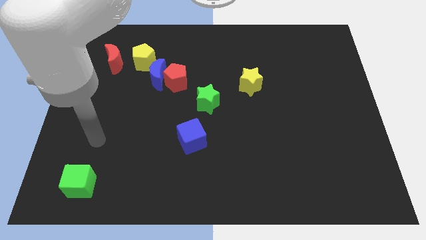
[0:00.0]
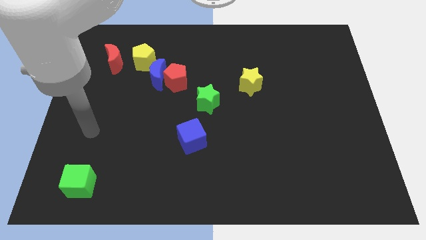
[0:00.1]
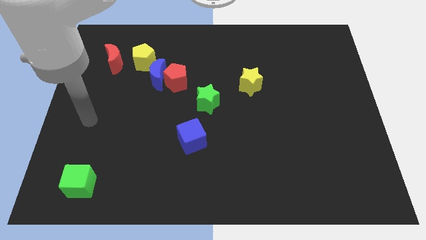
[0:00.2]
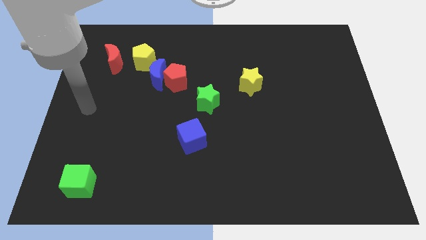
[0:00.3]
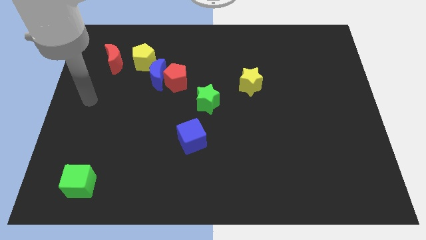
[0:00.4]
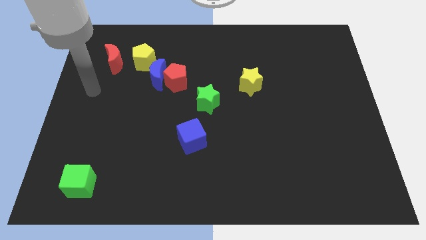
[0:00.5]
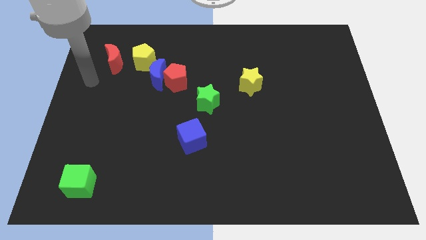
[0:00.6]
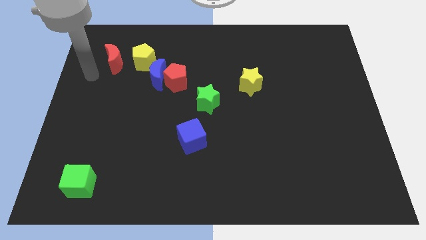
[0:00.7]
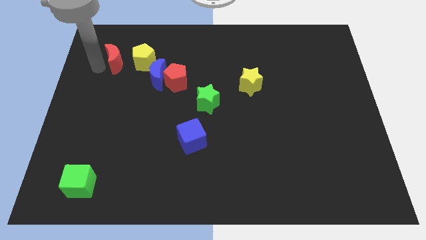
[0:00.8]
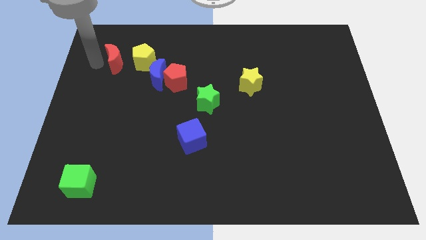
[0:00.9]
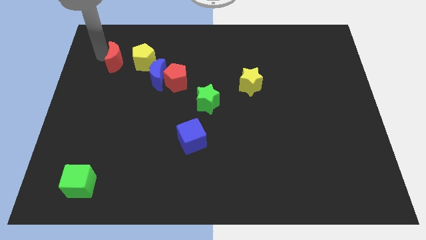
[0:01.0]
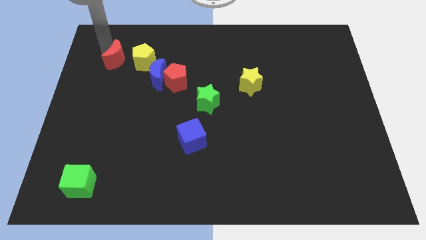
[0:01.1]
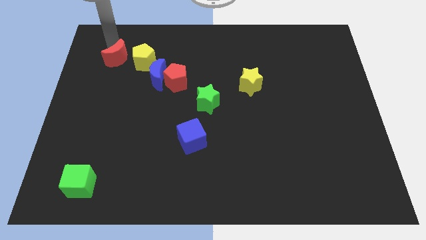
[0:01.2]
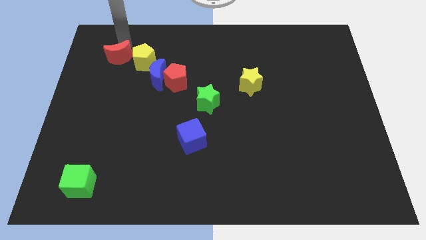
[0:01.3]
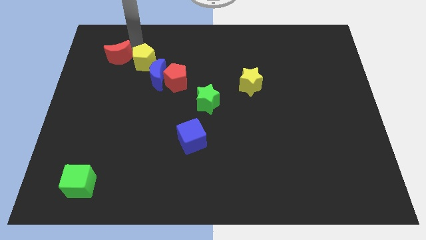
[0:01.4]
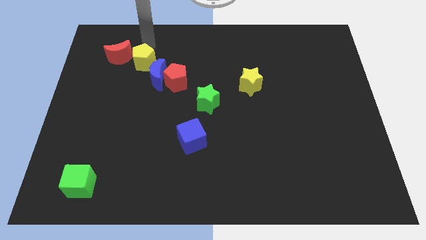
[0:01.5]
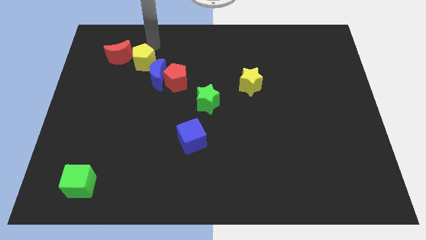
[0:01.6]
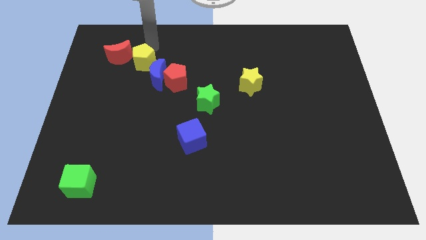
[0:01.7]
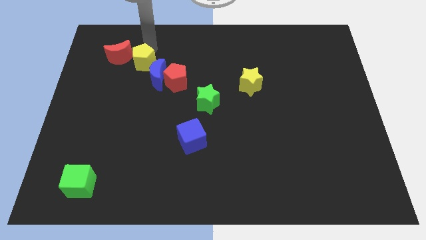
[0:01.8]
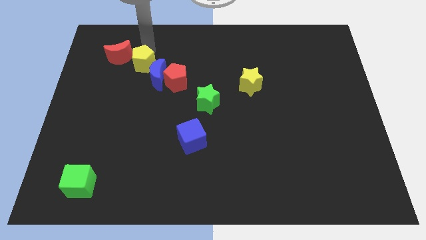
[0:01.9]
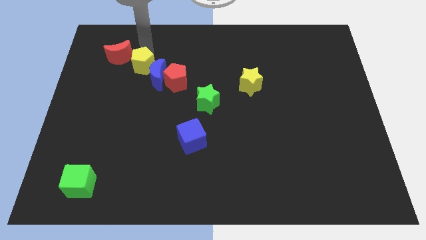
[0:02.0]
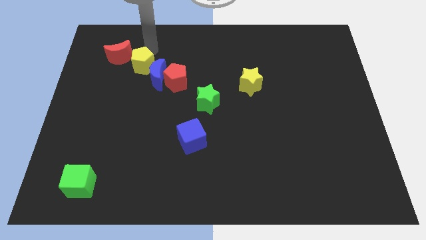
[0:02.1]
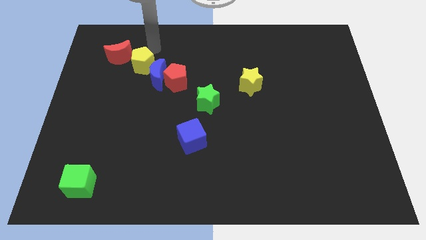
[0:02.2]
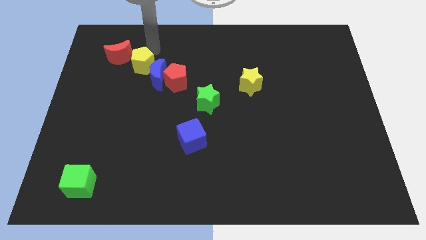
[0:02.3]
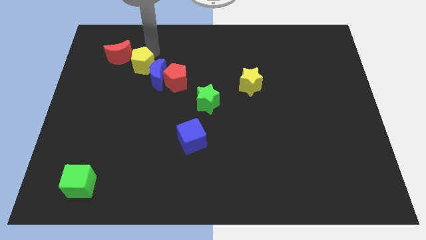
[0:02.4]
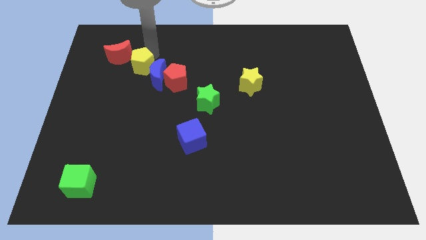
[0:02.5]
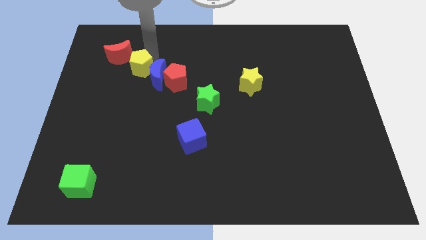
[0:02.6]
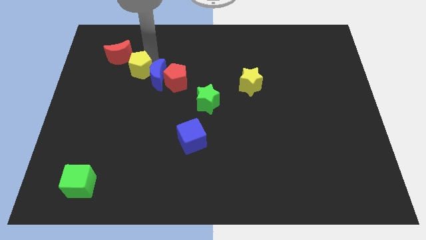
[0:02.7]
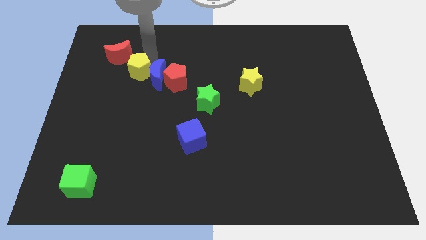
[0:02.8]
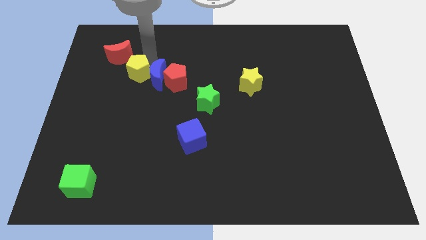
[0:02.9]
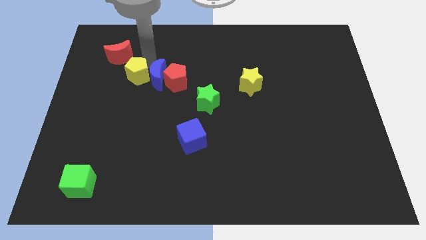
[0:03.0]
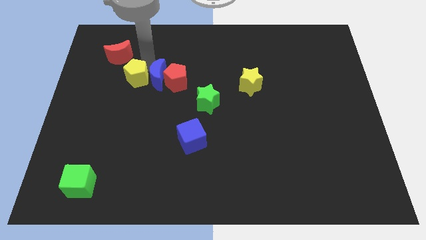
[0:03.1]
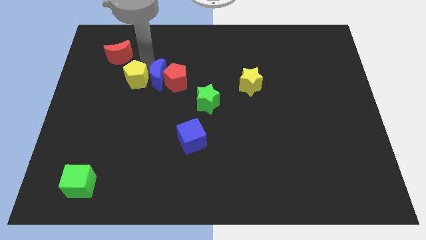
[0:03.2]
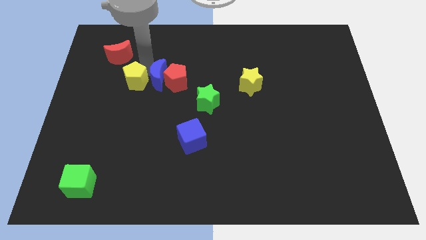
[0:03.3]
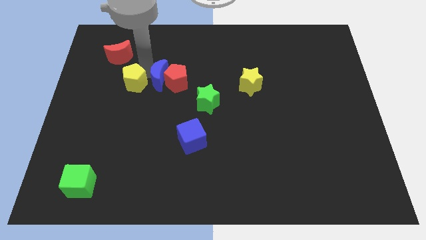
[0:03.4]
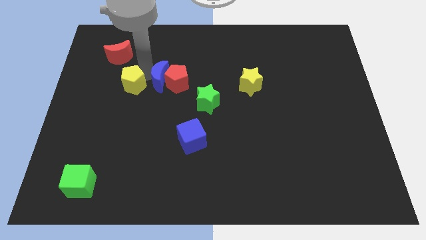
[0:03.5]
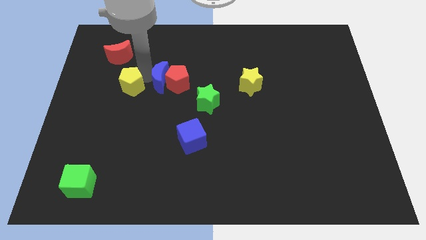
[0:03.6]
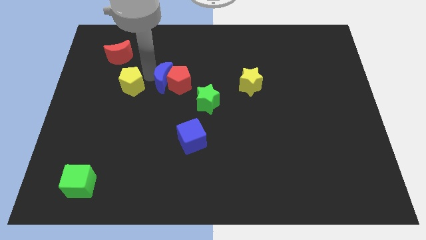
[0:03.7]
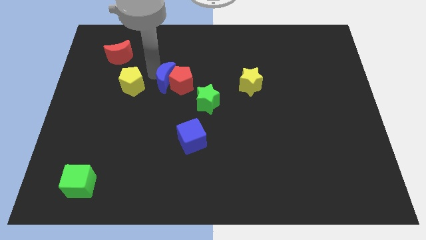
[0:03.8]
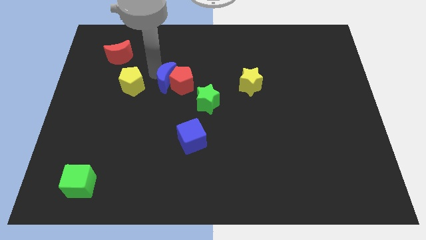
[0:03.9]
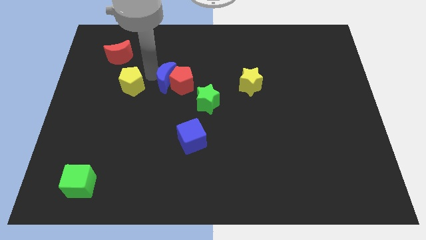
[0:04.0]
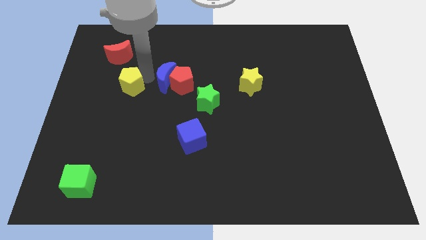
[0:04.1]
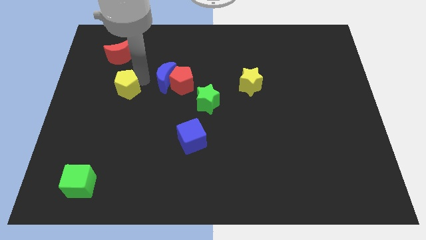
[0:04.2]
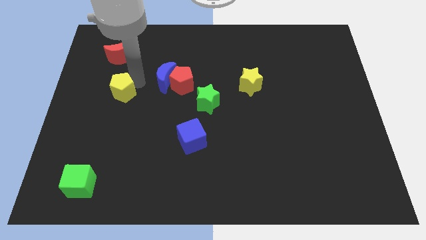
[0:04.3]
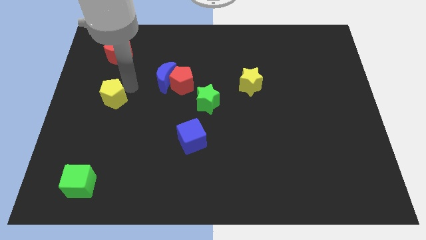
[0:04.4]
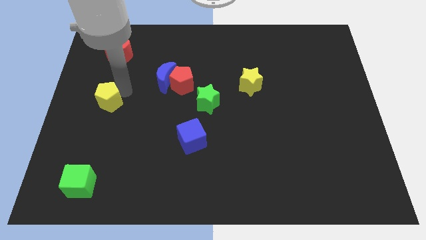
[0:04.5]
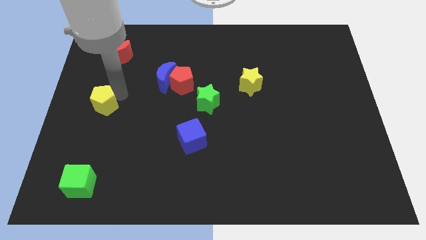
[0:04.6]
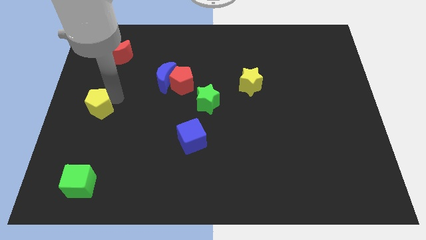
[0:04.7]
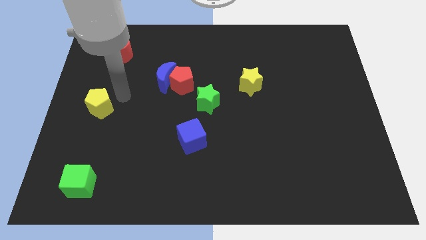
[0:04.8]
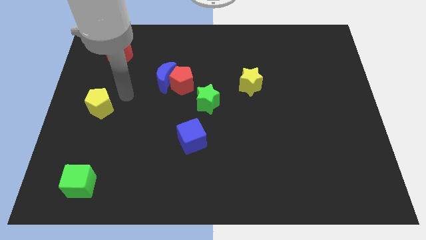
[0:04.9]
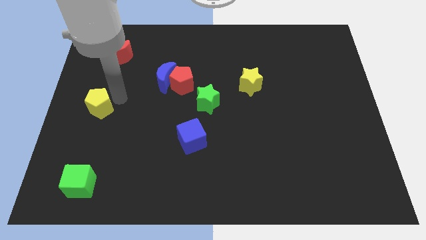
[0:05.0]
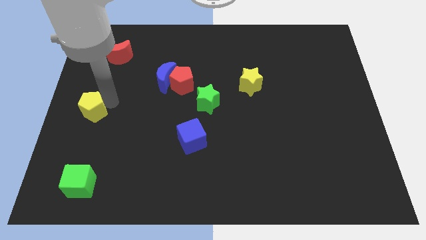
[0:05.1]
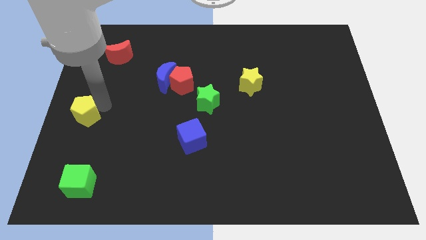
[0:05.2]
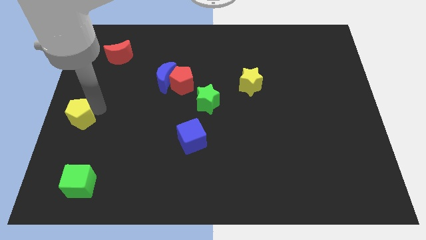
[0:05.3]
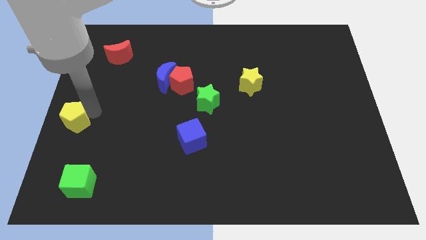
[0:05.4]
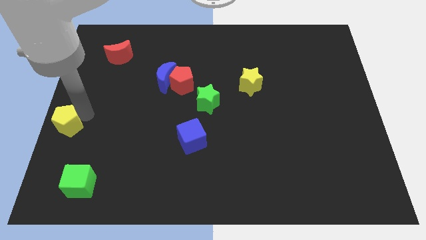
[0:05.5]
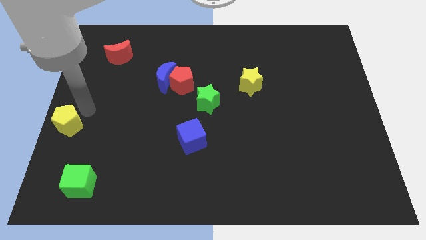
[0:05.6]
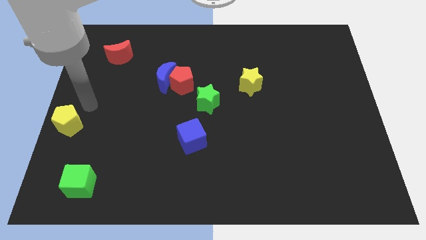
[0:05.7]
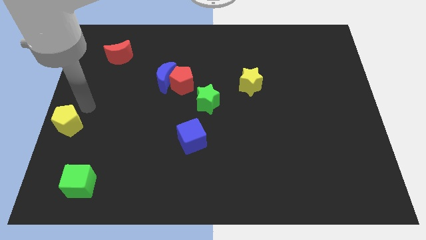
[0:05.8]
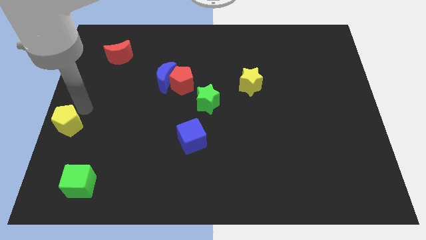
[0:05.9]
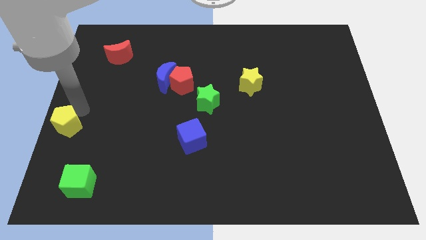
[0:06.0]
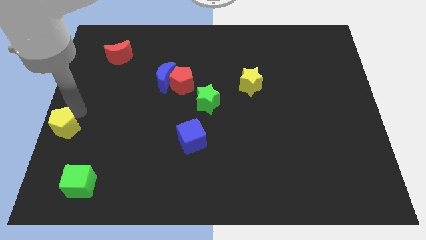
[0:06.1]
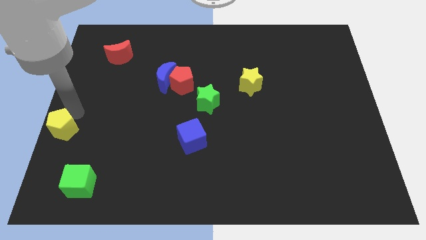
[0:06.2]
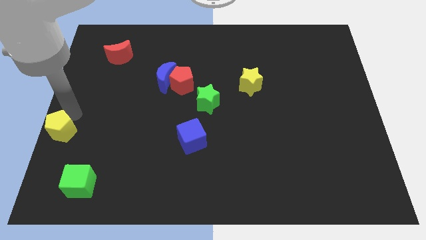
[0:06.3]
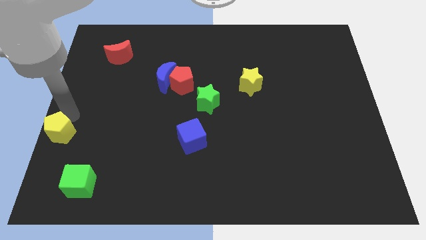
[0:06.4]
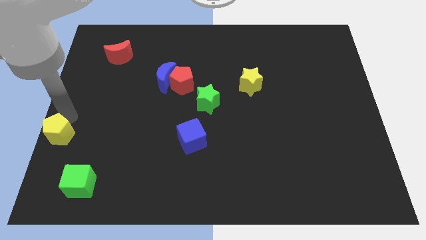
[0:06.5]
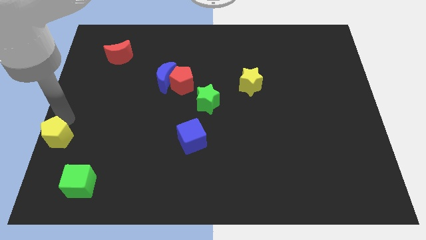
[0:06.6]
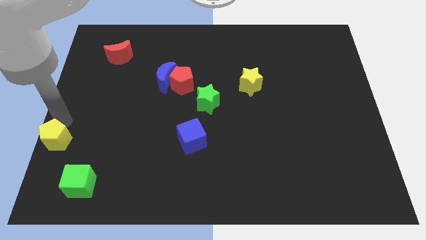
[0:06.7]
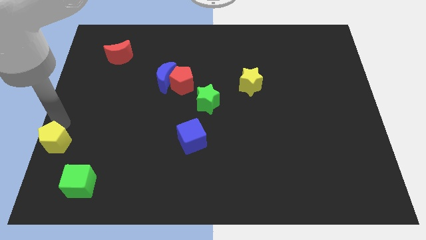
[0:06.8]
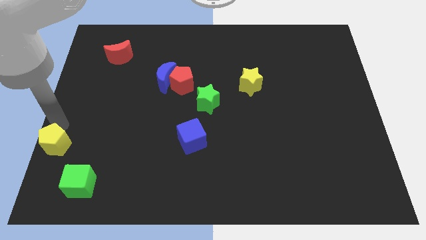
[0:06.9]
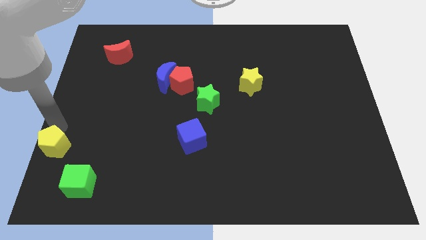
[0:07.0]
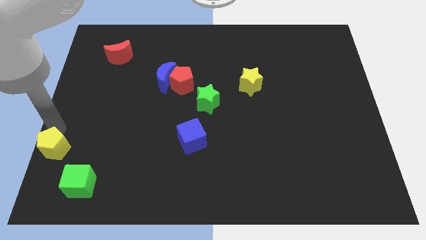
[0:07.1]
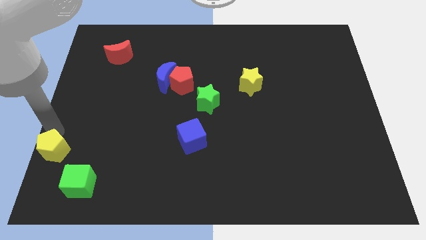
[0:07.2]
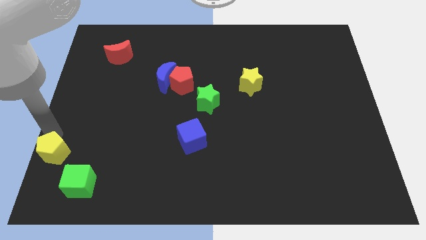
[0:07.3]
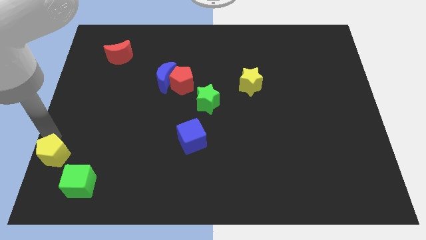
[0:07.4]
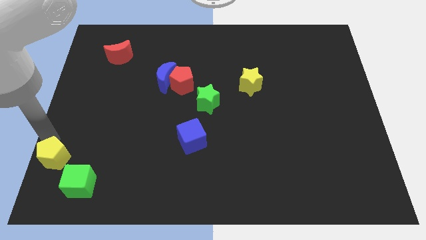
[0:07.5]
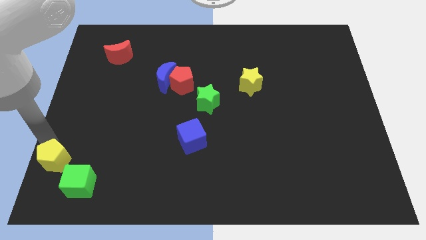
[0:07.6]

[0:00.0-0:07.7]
put the yellow pentagon to the lower left corner
